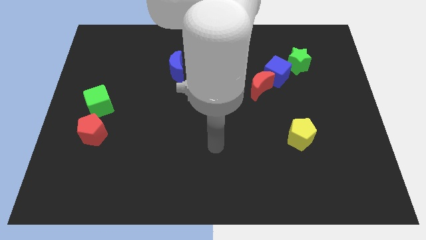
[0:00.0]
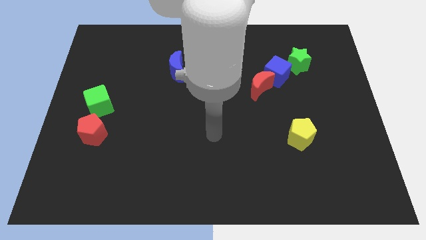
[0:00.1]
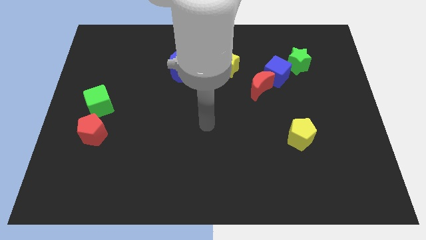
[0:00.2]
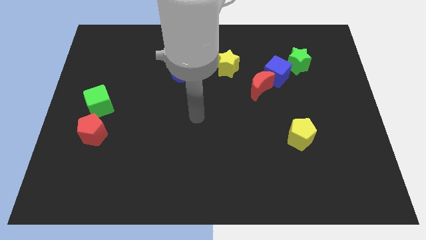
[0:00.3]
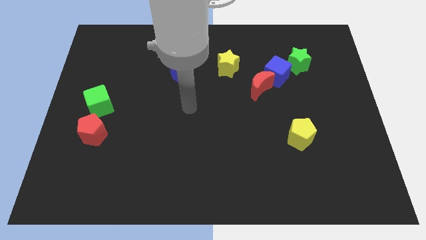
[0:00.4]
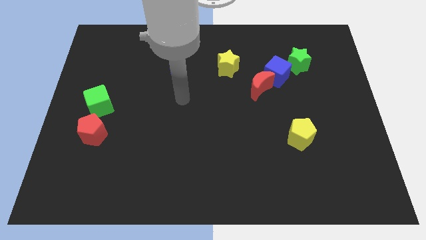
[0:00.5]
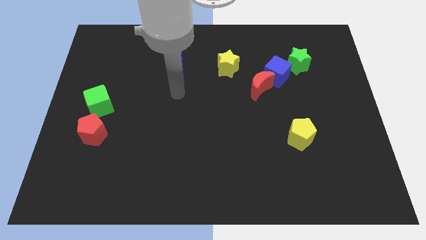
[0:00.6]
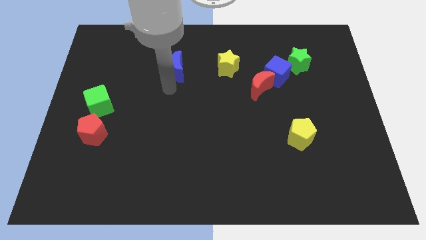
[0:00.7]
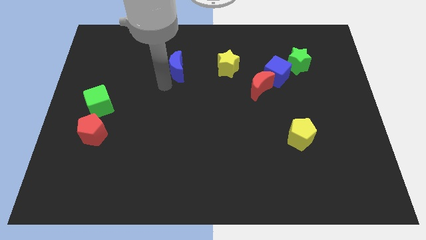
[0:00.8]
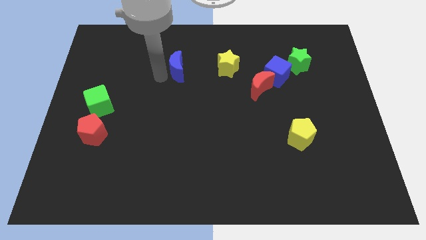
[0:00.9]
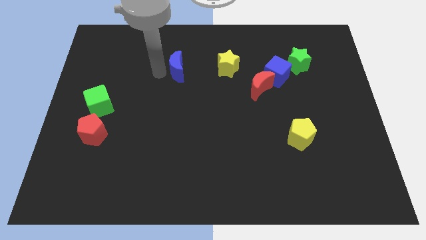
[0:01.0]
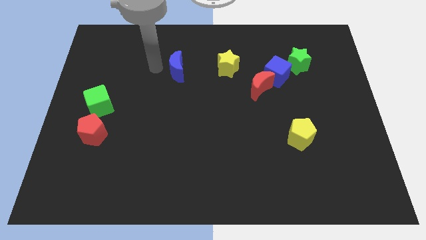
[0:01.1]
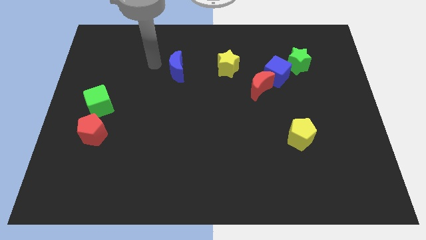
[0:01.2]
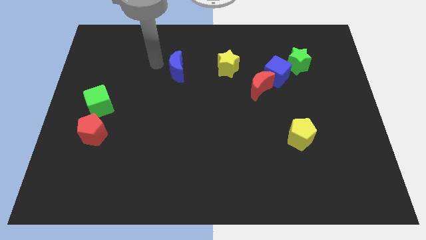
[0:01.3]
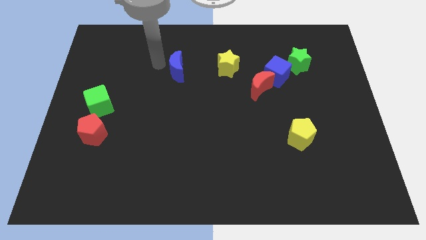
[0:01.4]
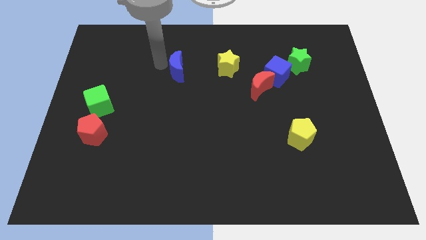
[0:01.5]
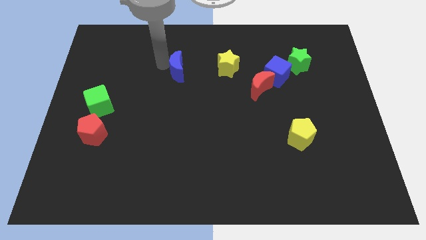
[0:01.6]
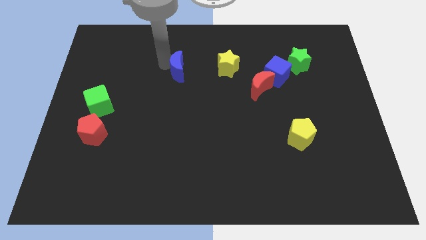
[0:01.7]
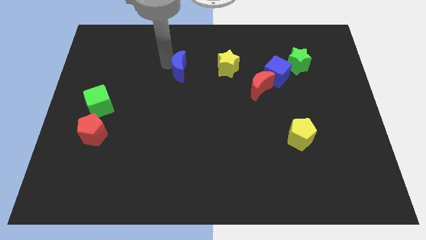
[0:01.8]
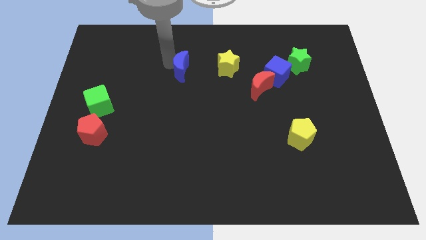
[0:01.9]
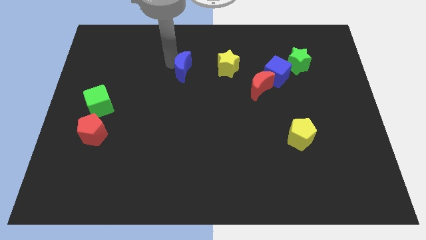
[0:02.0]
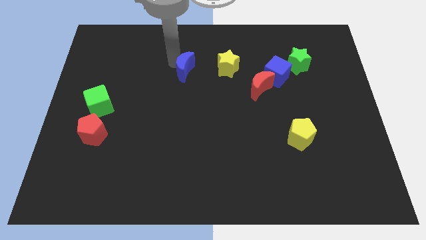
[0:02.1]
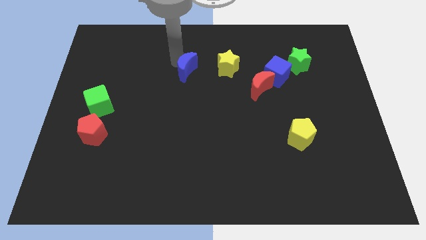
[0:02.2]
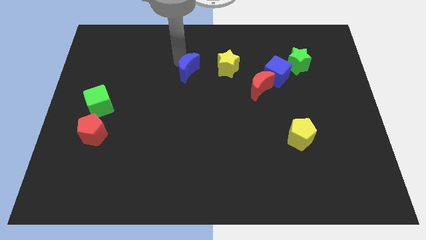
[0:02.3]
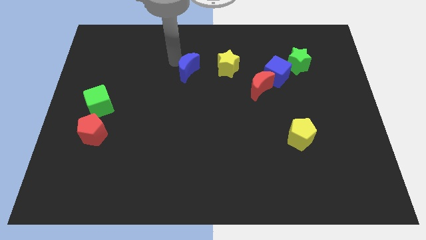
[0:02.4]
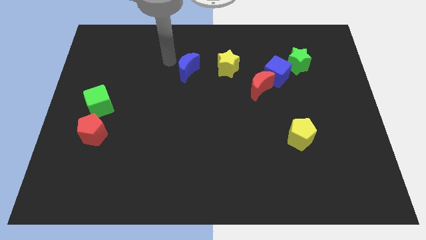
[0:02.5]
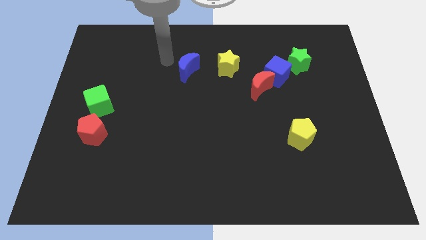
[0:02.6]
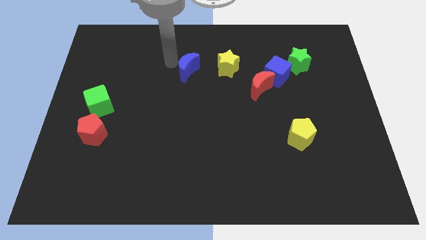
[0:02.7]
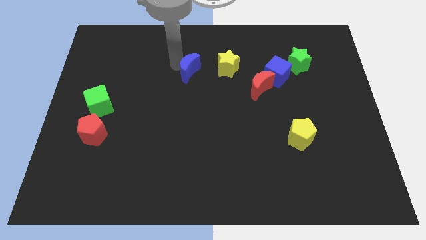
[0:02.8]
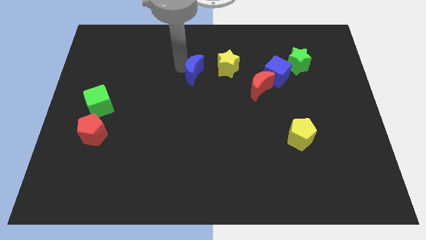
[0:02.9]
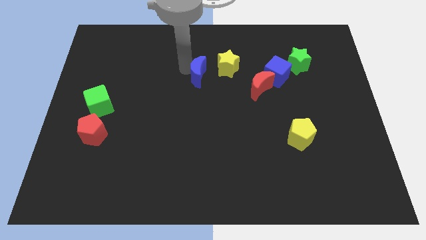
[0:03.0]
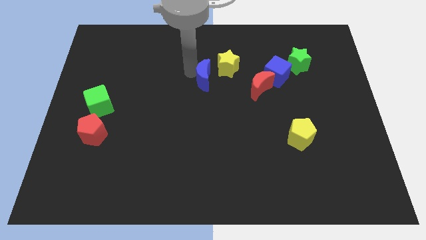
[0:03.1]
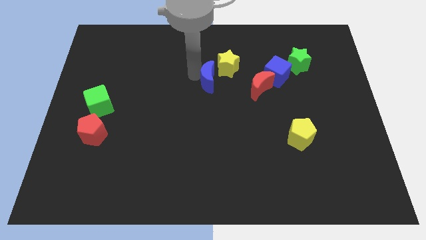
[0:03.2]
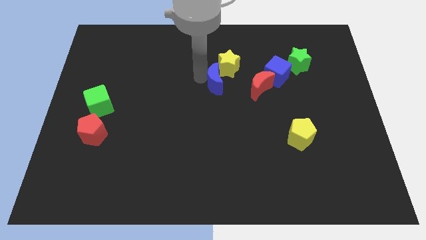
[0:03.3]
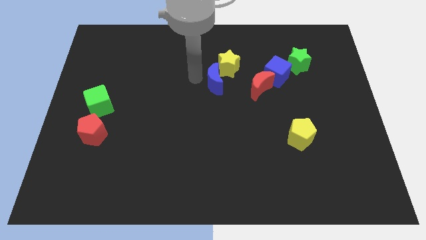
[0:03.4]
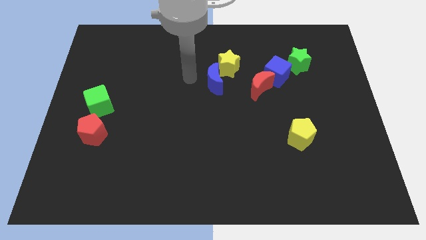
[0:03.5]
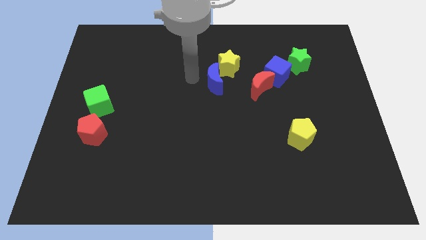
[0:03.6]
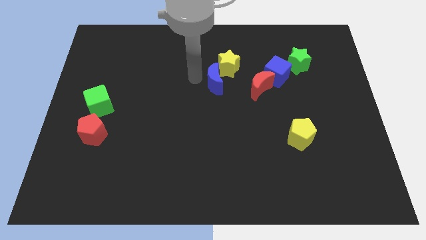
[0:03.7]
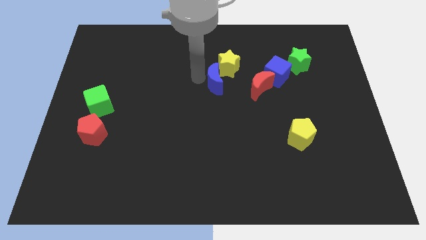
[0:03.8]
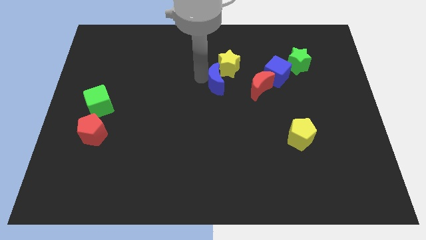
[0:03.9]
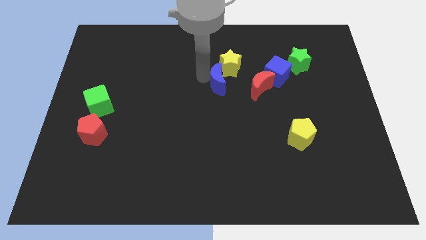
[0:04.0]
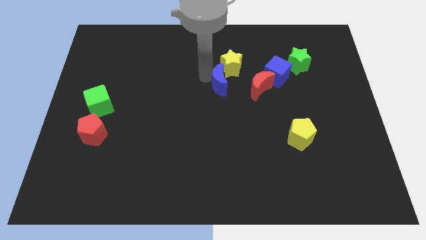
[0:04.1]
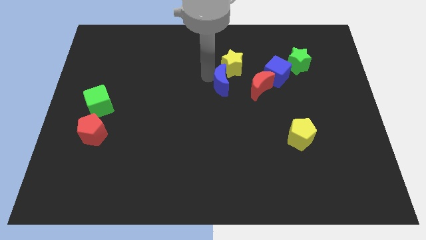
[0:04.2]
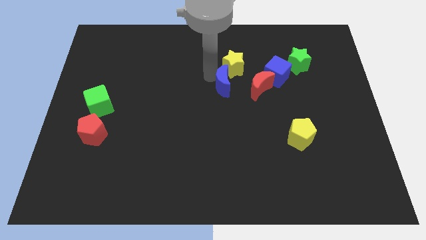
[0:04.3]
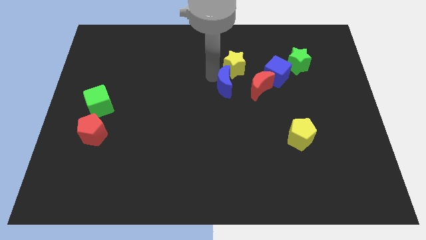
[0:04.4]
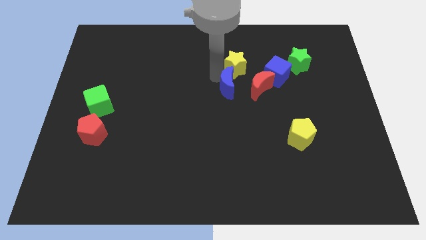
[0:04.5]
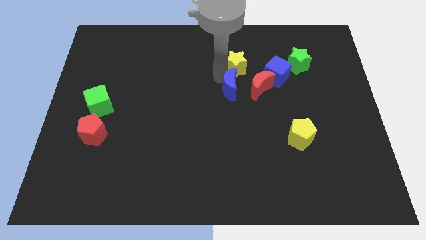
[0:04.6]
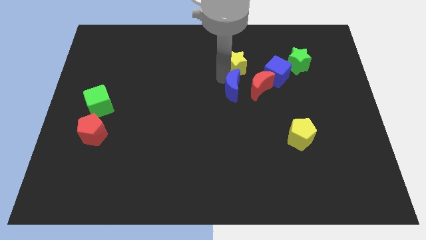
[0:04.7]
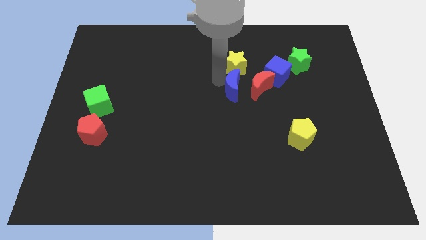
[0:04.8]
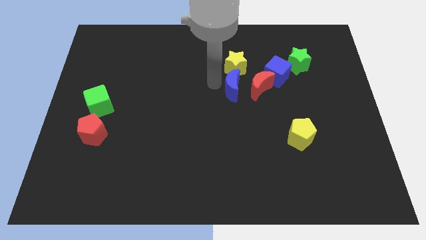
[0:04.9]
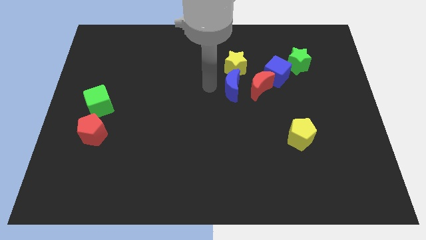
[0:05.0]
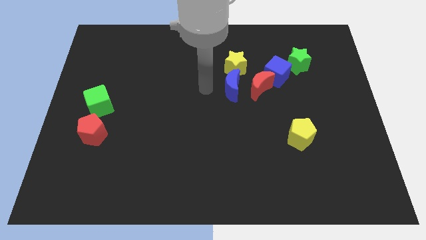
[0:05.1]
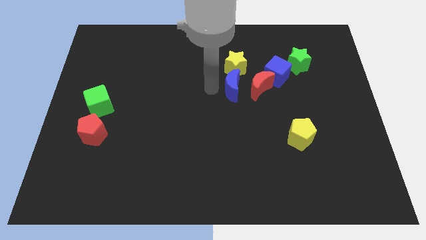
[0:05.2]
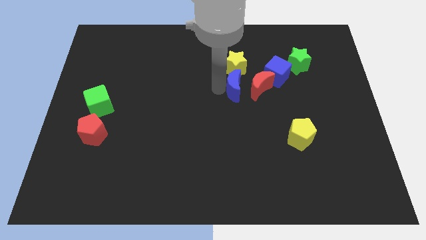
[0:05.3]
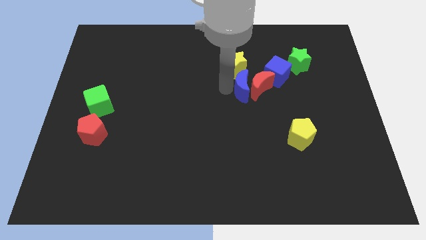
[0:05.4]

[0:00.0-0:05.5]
slide the blue moon next to the red moon

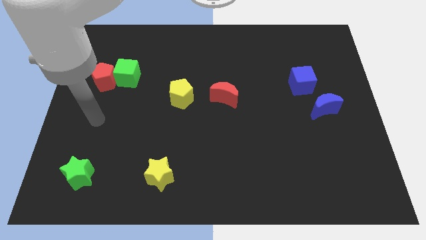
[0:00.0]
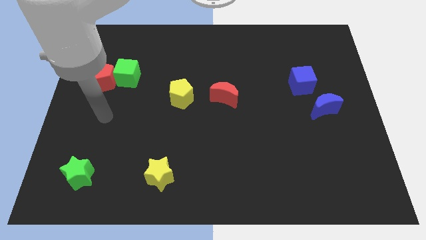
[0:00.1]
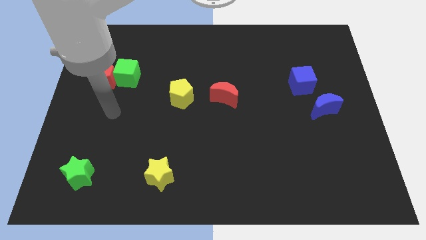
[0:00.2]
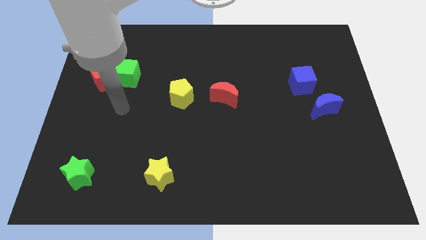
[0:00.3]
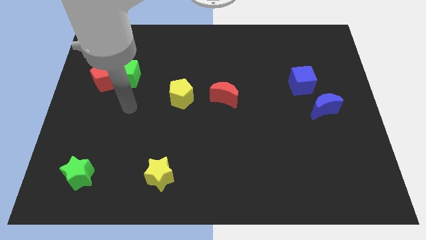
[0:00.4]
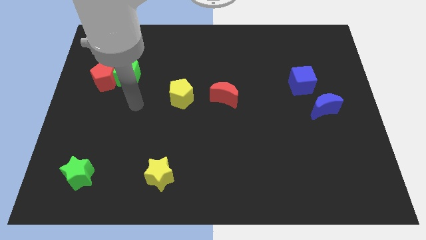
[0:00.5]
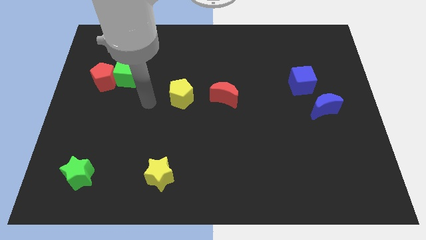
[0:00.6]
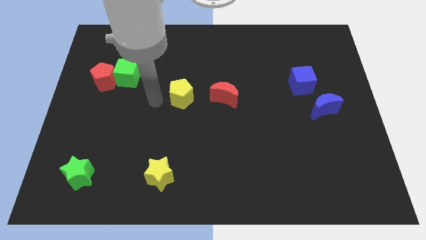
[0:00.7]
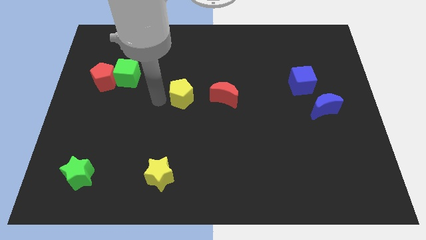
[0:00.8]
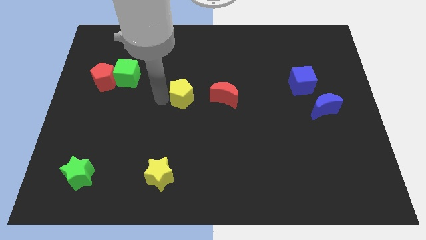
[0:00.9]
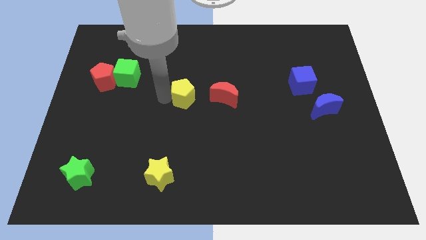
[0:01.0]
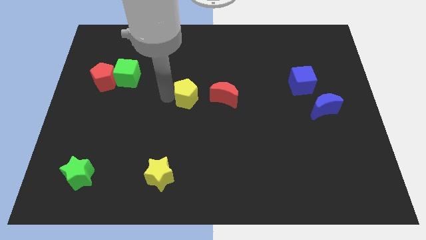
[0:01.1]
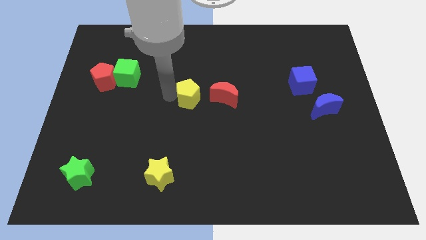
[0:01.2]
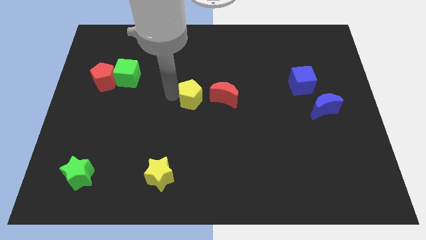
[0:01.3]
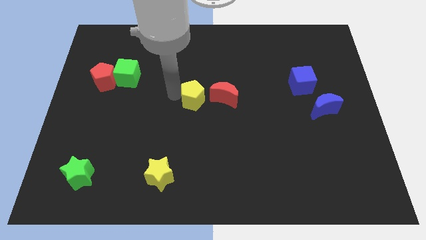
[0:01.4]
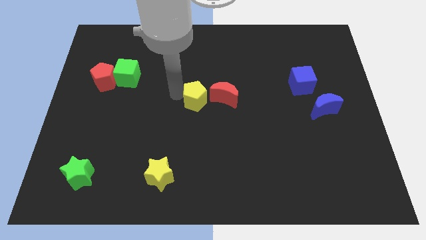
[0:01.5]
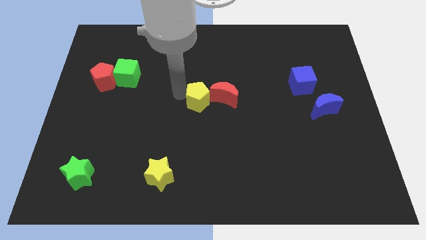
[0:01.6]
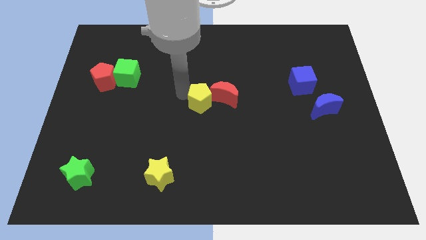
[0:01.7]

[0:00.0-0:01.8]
move the yellow pentagon to the red moon

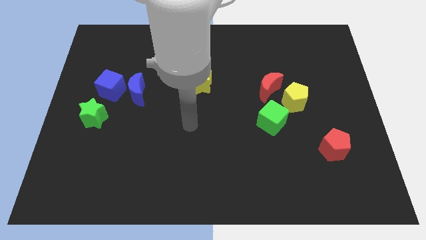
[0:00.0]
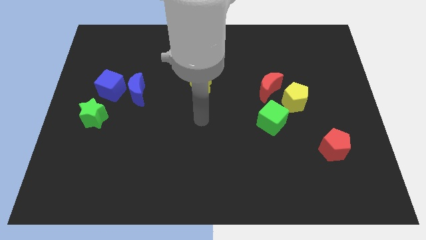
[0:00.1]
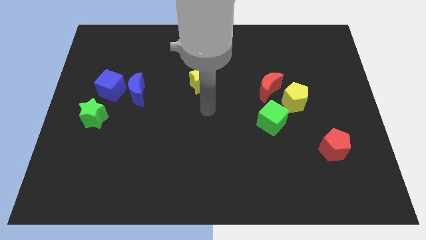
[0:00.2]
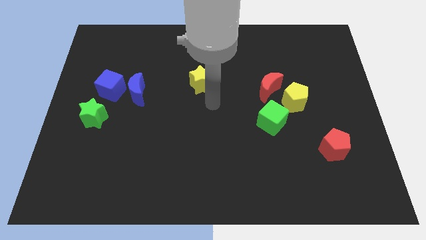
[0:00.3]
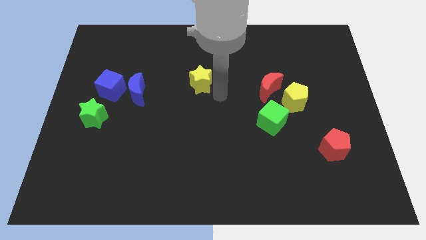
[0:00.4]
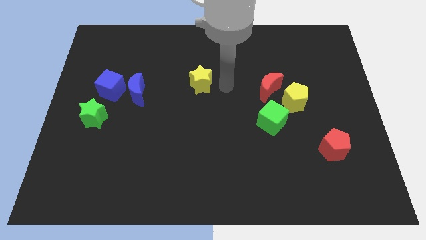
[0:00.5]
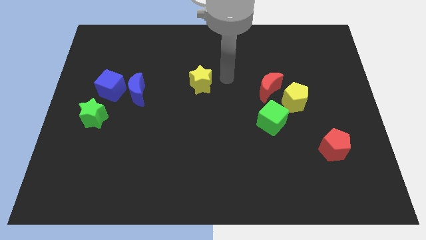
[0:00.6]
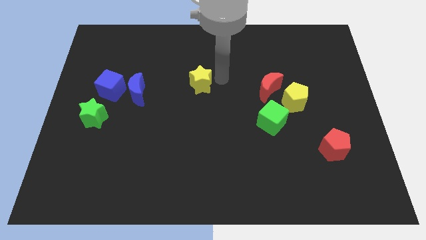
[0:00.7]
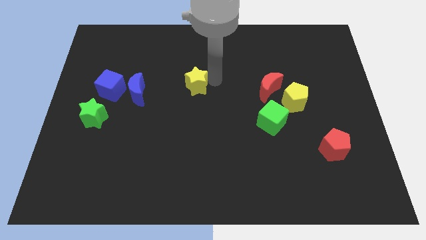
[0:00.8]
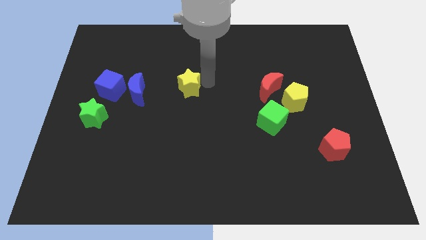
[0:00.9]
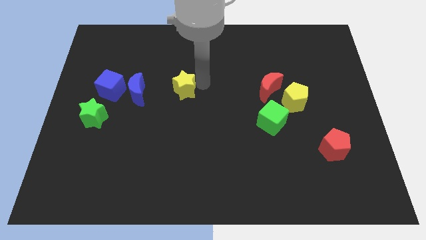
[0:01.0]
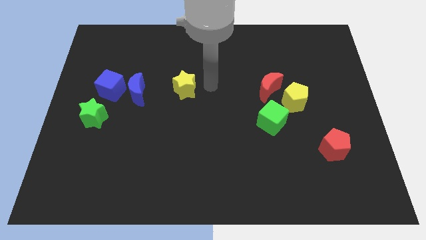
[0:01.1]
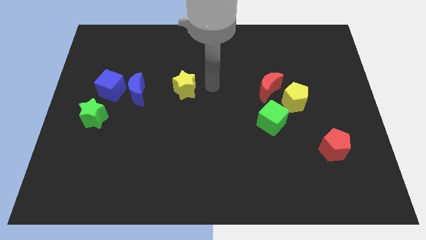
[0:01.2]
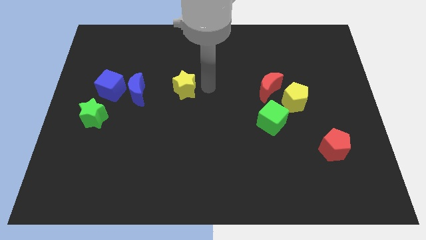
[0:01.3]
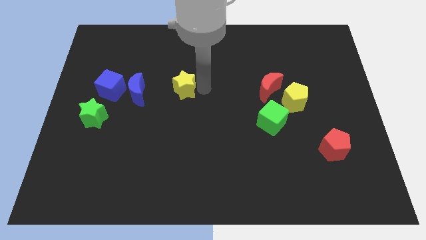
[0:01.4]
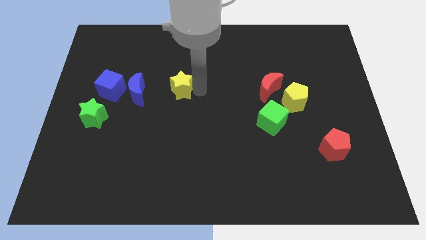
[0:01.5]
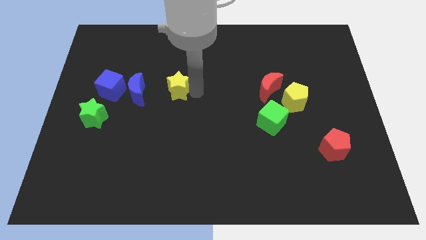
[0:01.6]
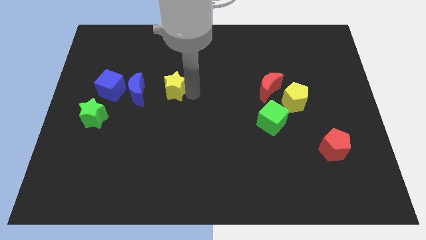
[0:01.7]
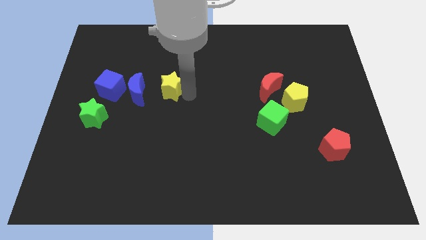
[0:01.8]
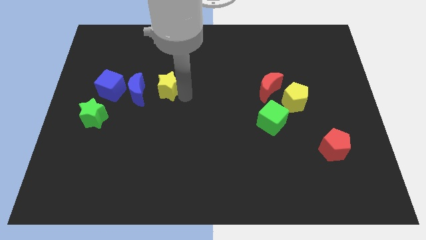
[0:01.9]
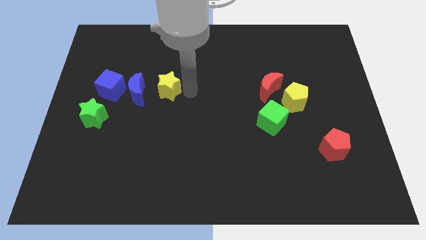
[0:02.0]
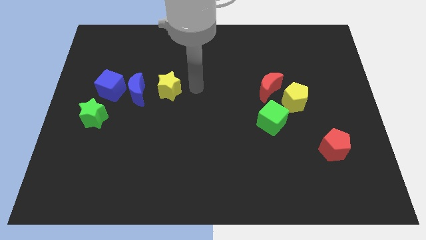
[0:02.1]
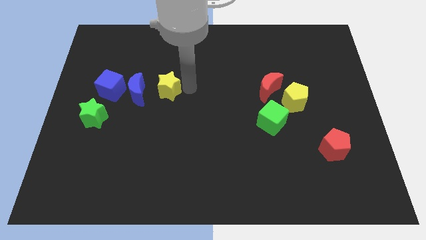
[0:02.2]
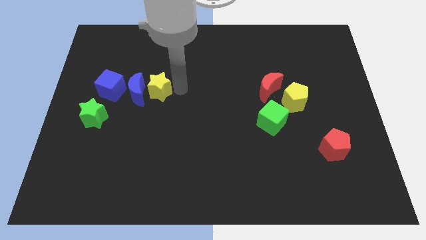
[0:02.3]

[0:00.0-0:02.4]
put the yellow star close to the blue moon
